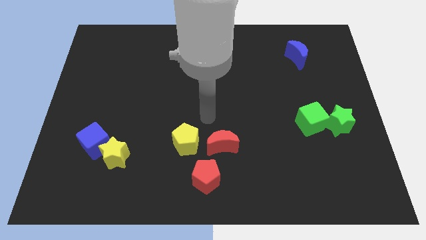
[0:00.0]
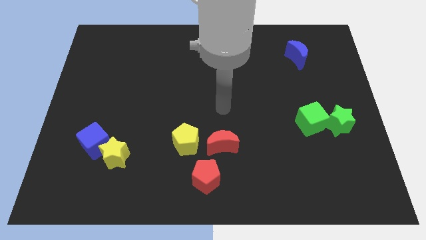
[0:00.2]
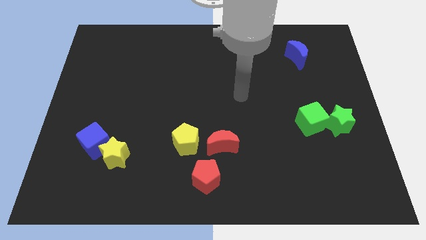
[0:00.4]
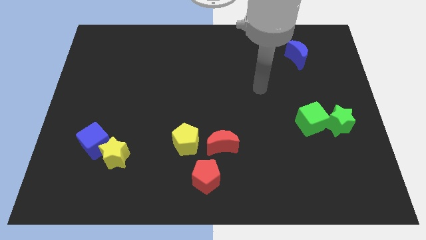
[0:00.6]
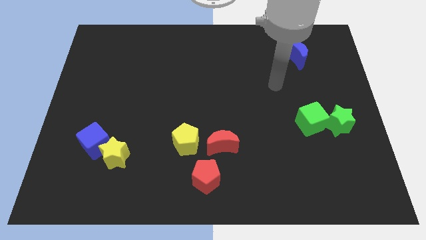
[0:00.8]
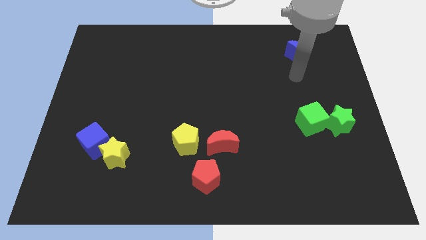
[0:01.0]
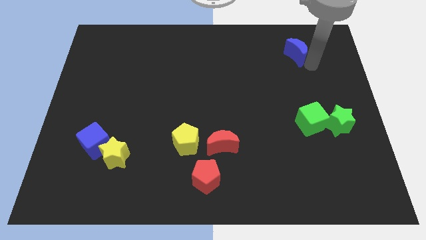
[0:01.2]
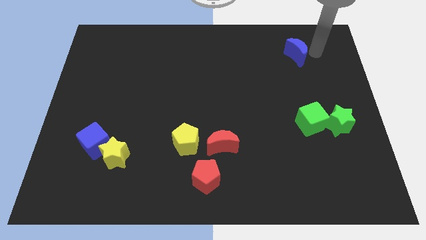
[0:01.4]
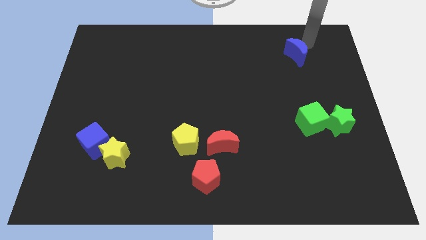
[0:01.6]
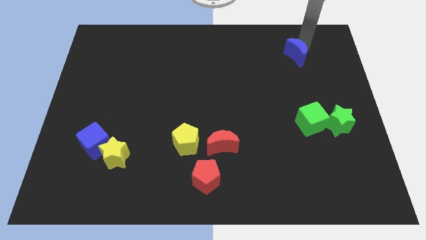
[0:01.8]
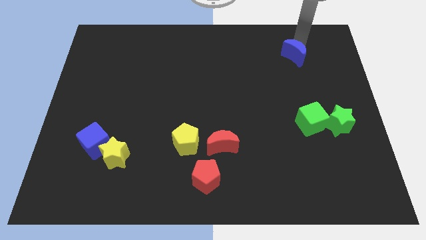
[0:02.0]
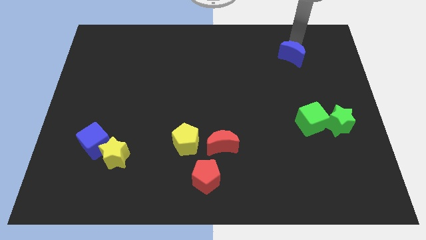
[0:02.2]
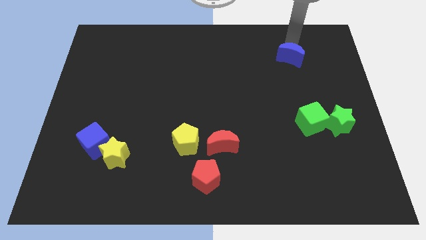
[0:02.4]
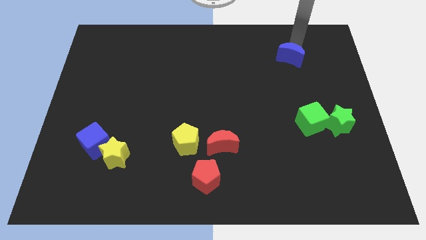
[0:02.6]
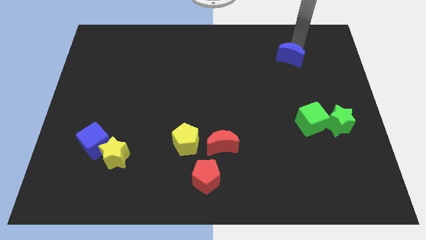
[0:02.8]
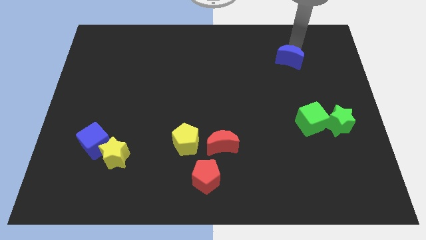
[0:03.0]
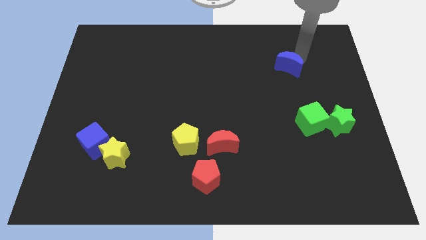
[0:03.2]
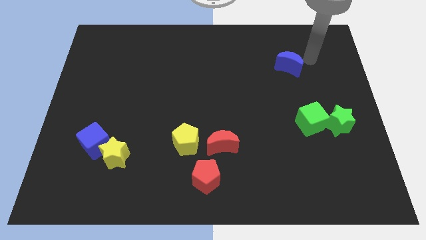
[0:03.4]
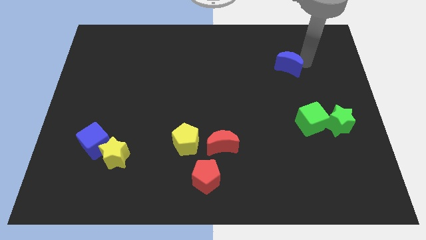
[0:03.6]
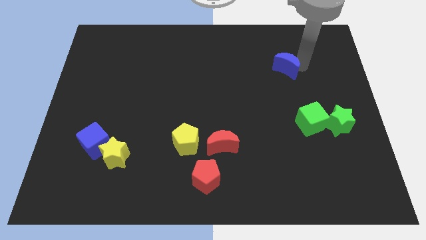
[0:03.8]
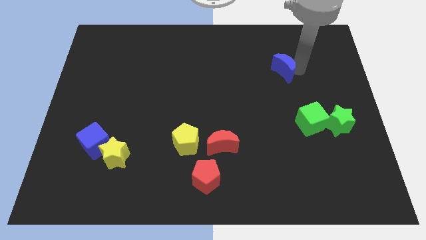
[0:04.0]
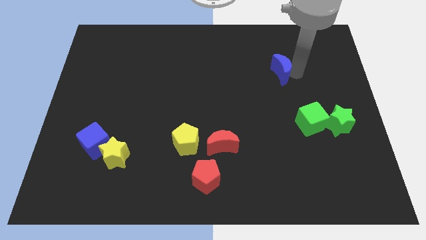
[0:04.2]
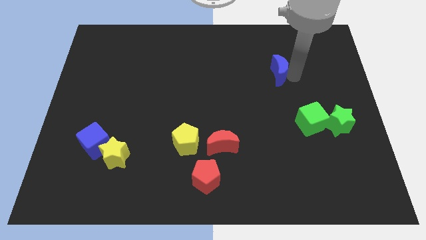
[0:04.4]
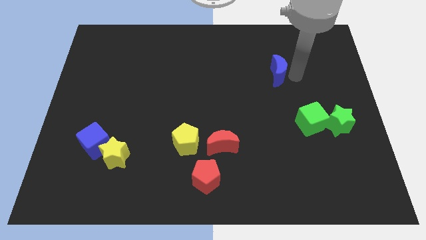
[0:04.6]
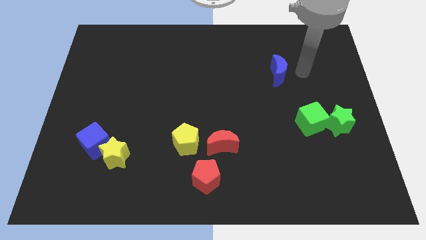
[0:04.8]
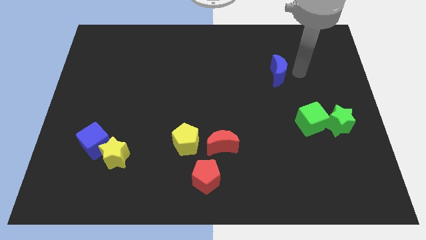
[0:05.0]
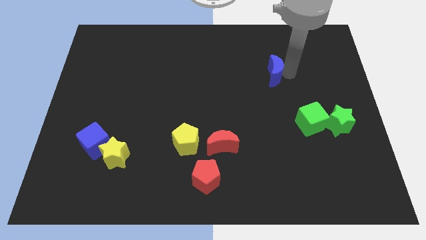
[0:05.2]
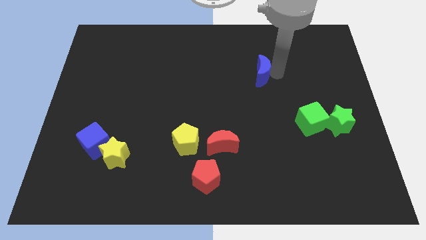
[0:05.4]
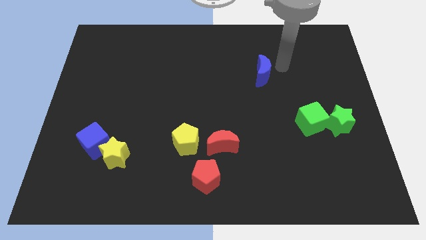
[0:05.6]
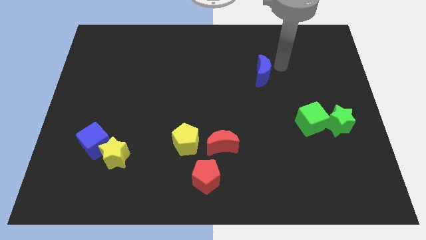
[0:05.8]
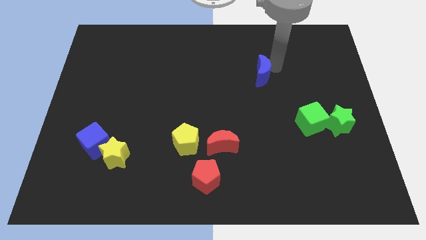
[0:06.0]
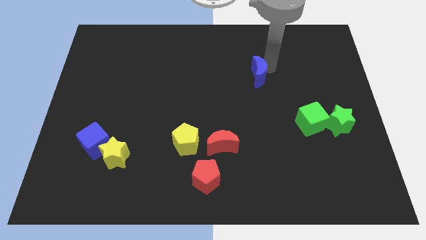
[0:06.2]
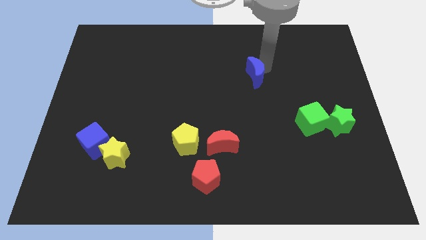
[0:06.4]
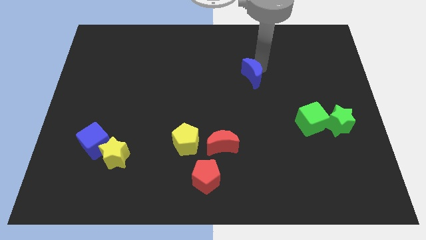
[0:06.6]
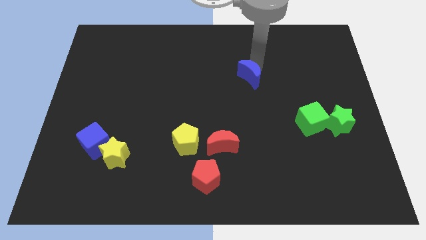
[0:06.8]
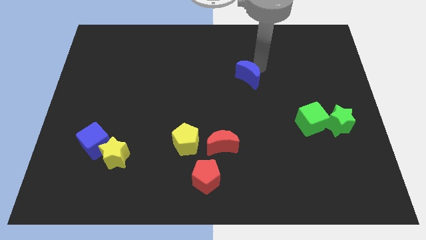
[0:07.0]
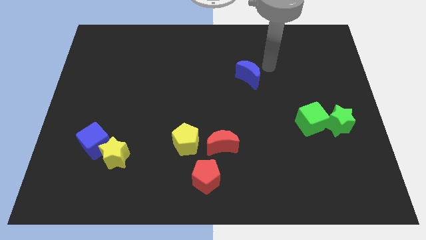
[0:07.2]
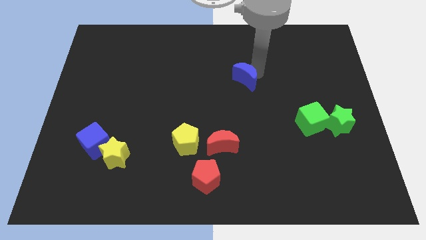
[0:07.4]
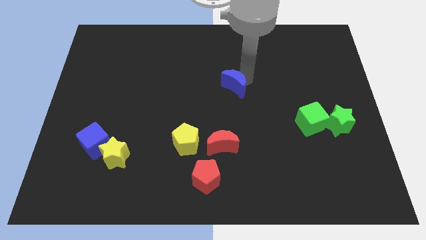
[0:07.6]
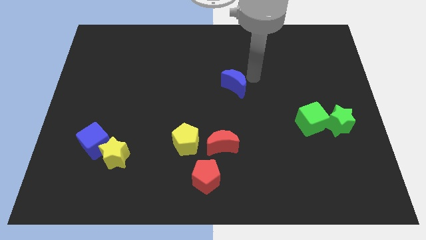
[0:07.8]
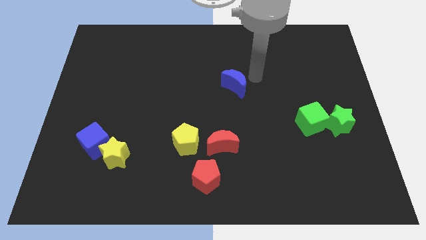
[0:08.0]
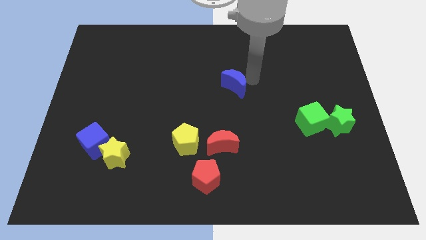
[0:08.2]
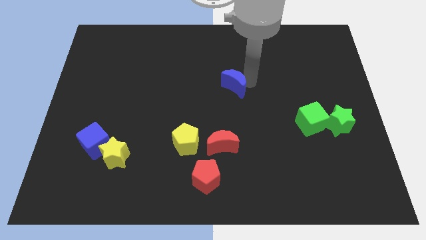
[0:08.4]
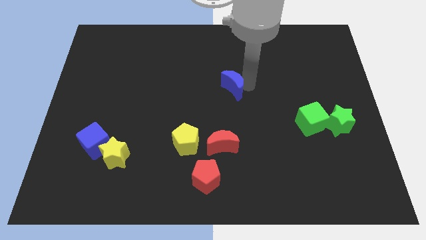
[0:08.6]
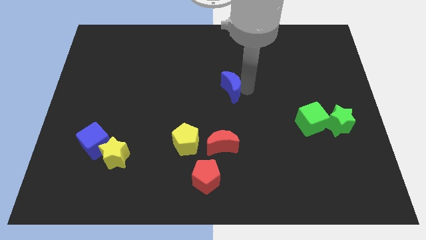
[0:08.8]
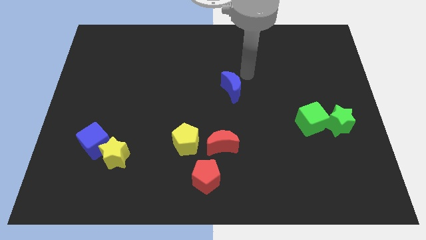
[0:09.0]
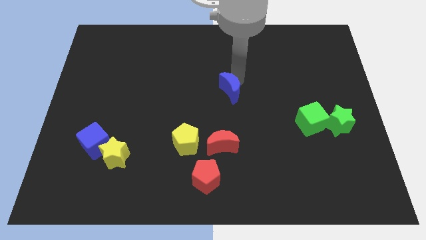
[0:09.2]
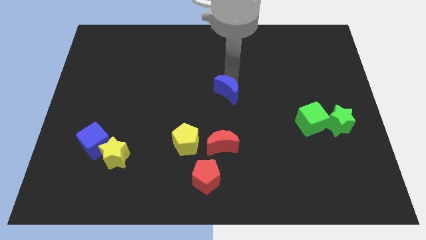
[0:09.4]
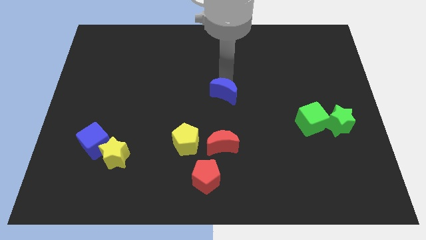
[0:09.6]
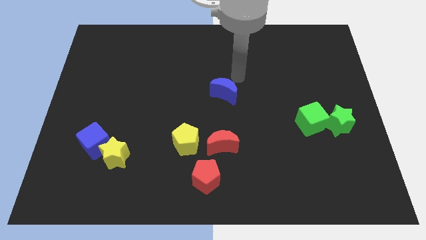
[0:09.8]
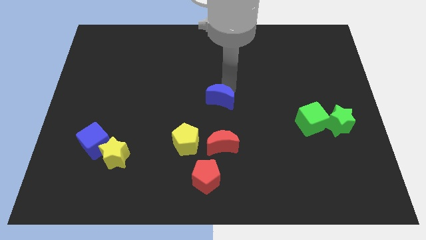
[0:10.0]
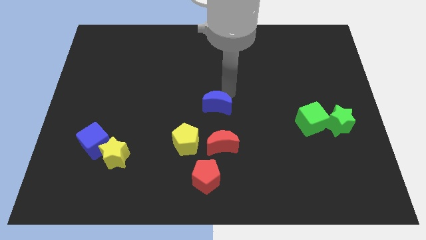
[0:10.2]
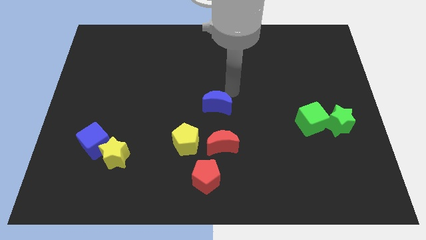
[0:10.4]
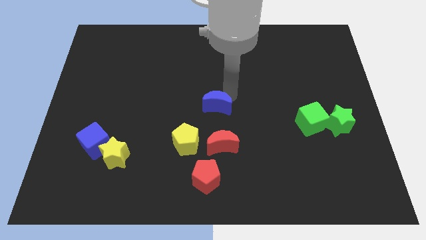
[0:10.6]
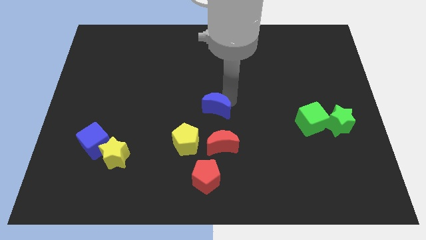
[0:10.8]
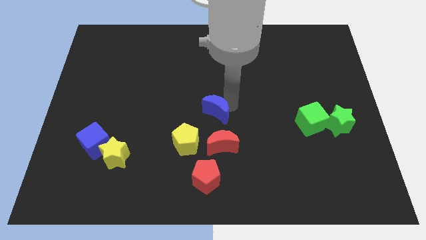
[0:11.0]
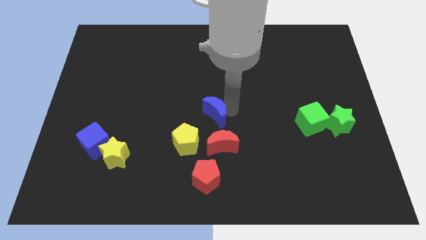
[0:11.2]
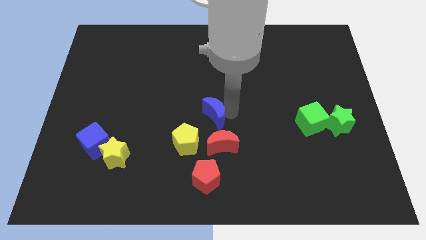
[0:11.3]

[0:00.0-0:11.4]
slide the blue moon diagonally up and to the left of the red moon

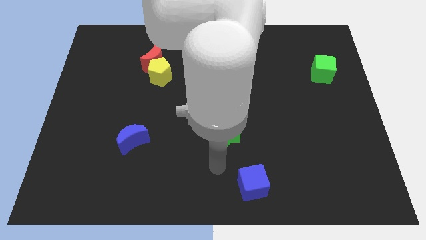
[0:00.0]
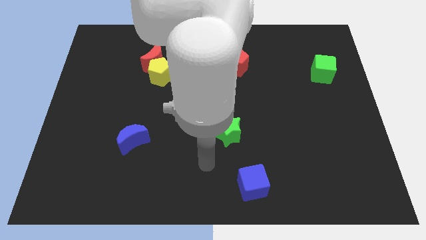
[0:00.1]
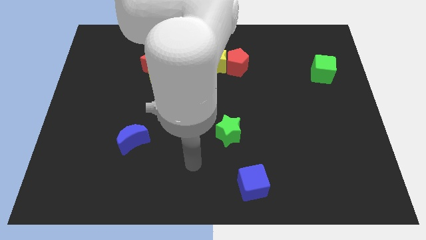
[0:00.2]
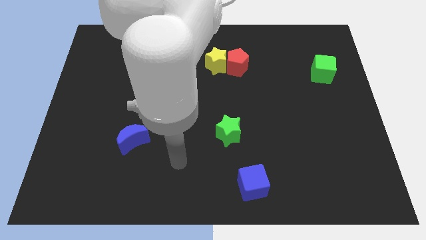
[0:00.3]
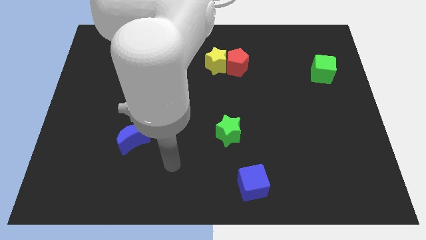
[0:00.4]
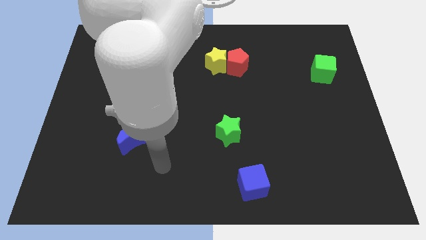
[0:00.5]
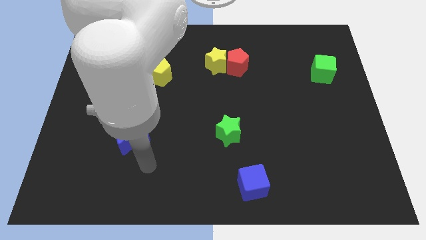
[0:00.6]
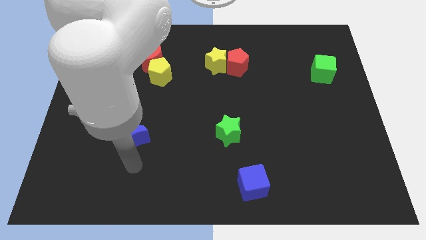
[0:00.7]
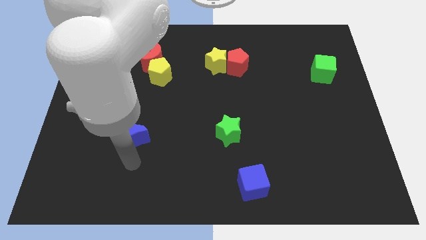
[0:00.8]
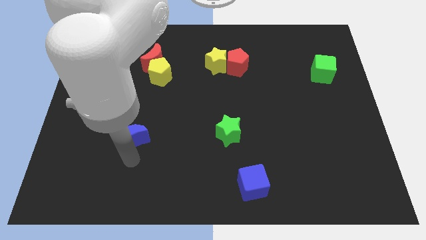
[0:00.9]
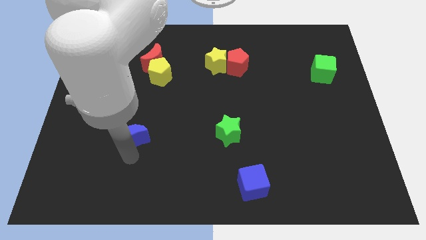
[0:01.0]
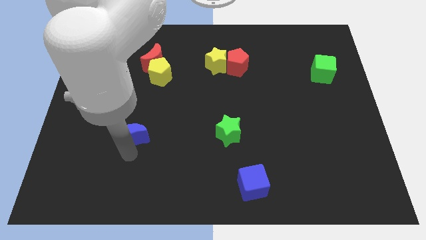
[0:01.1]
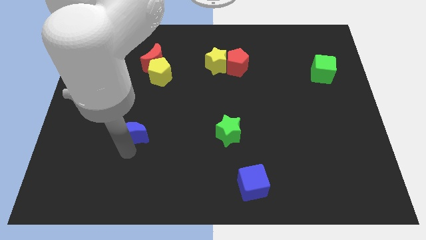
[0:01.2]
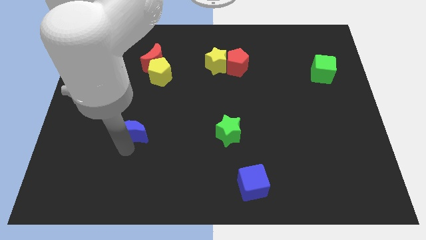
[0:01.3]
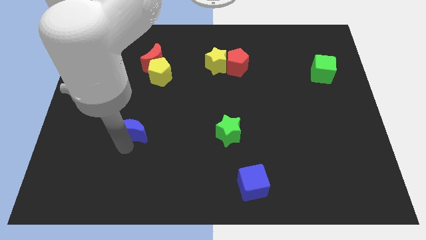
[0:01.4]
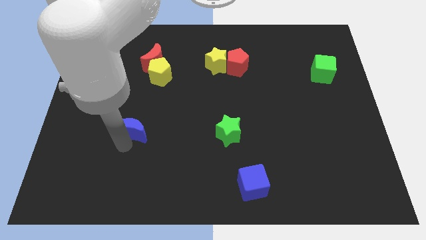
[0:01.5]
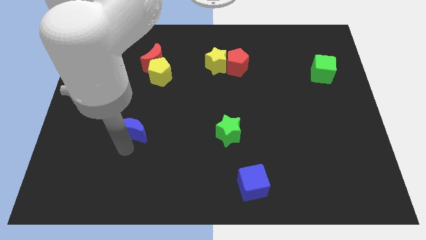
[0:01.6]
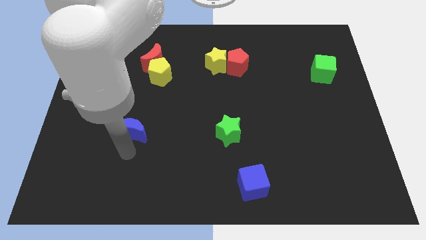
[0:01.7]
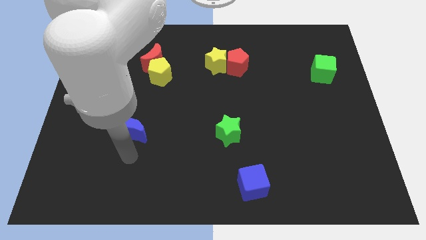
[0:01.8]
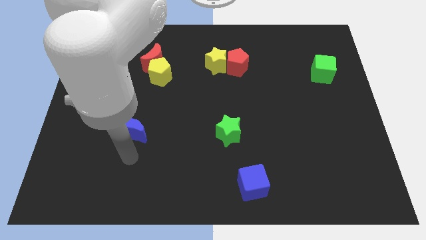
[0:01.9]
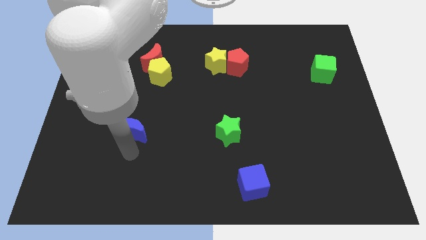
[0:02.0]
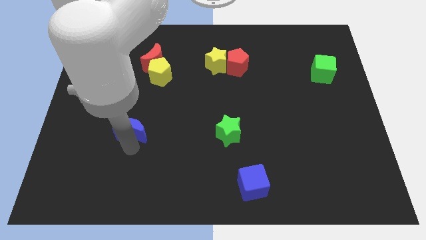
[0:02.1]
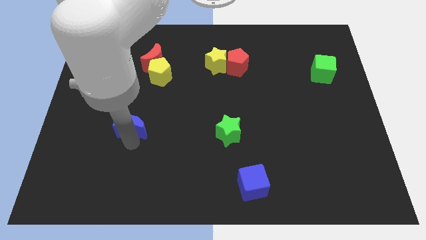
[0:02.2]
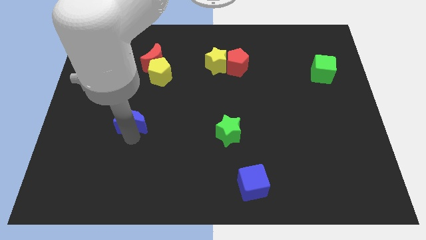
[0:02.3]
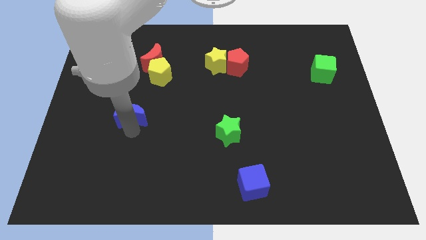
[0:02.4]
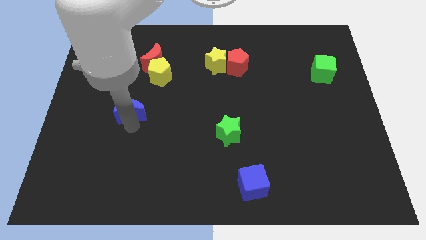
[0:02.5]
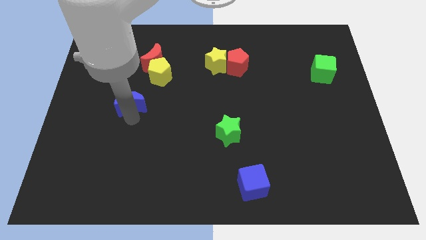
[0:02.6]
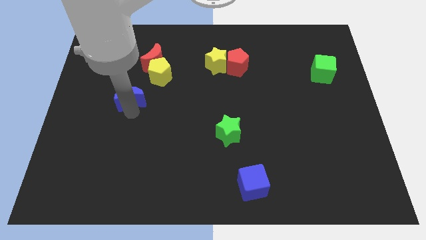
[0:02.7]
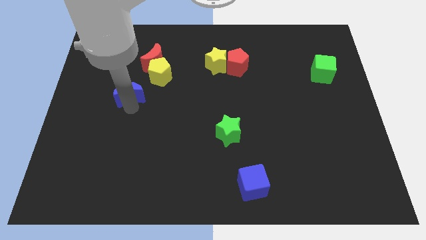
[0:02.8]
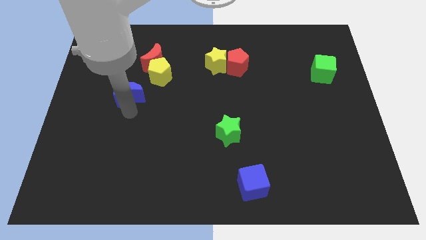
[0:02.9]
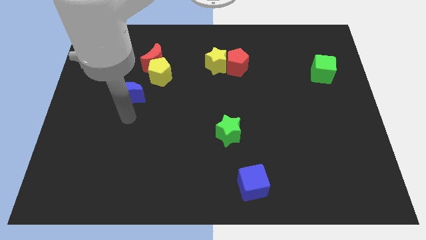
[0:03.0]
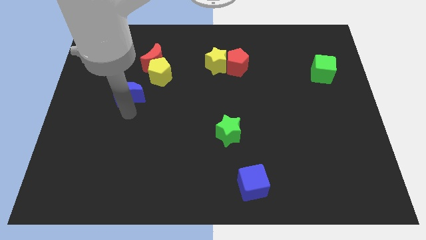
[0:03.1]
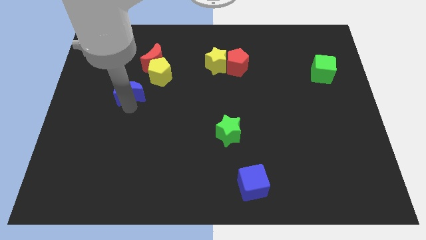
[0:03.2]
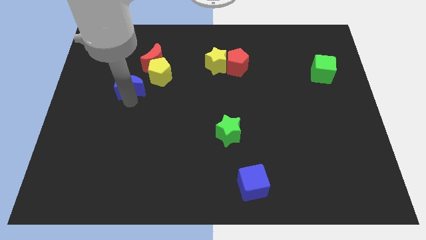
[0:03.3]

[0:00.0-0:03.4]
move the blue moon diagonally down and to the left of the red moon
